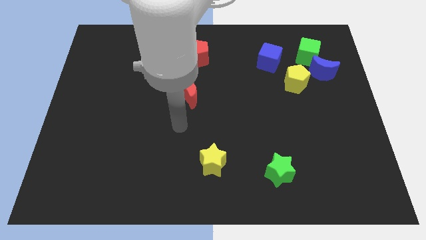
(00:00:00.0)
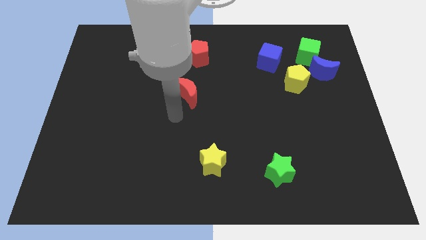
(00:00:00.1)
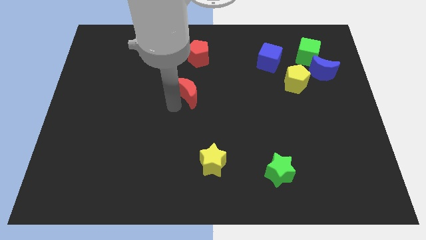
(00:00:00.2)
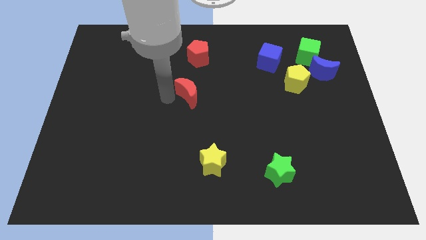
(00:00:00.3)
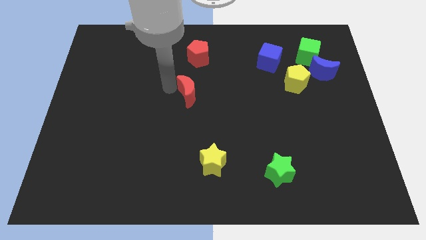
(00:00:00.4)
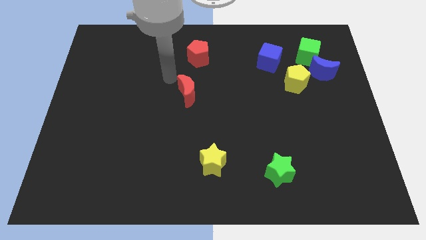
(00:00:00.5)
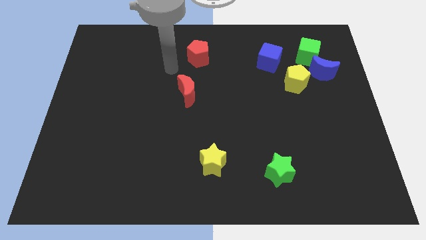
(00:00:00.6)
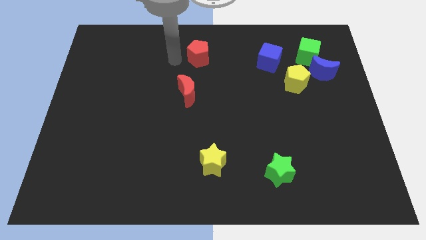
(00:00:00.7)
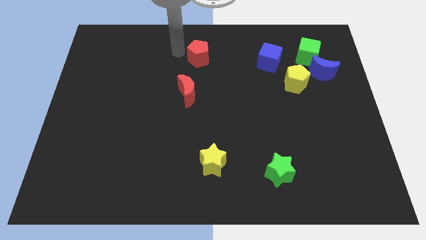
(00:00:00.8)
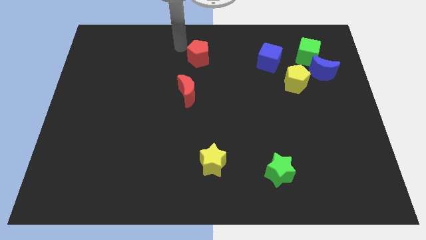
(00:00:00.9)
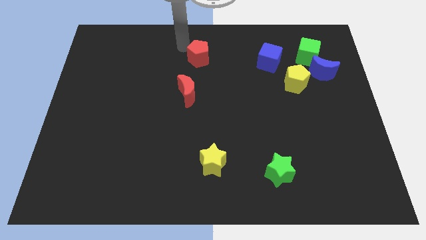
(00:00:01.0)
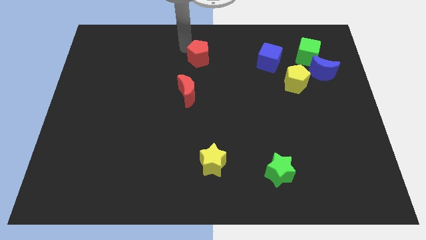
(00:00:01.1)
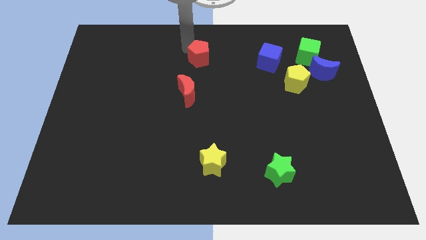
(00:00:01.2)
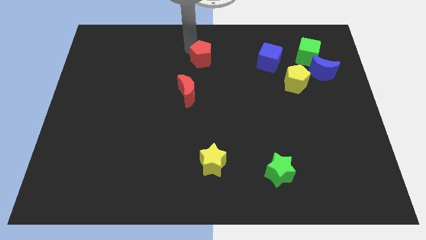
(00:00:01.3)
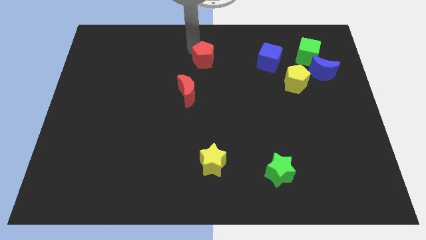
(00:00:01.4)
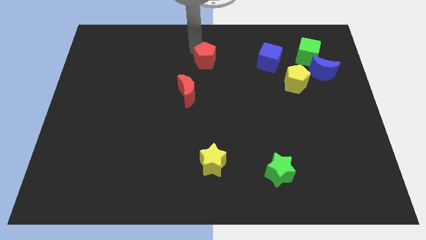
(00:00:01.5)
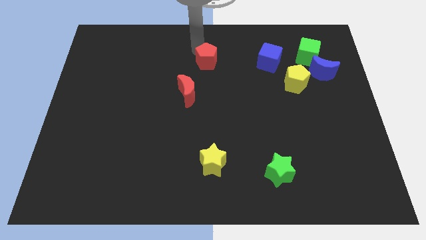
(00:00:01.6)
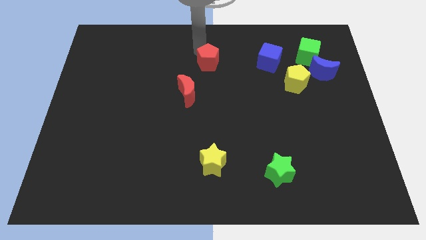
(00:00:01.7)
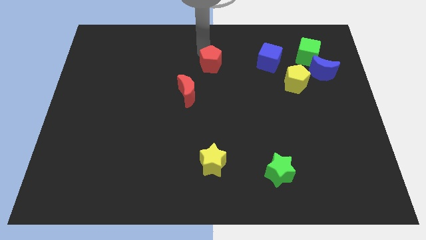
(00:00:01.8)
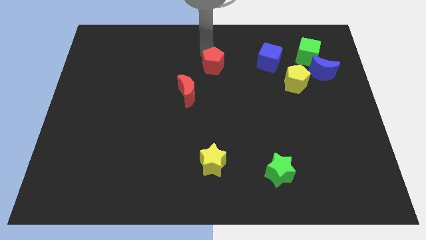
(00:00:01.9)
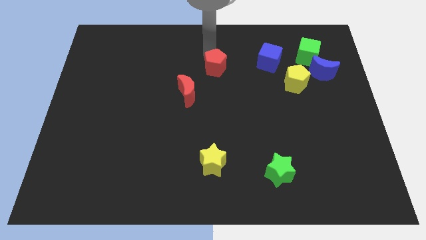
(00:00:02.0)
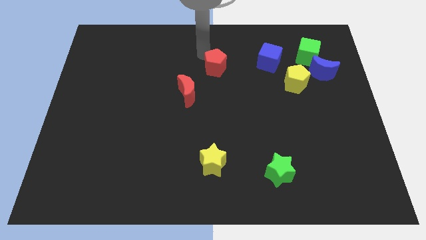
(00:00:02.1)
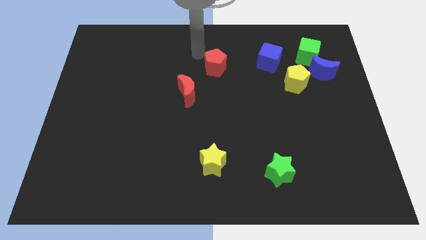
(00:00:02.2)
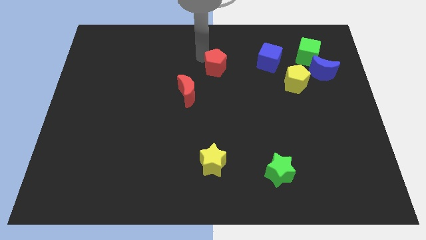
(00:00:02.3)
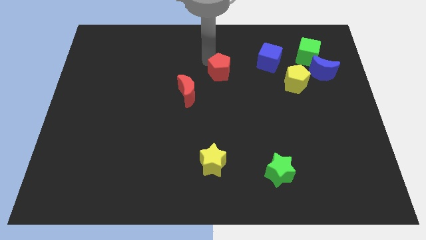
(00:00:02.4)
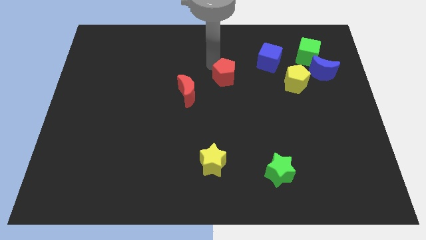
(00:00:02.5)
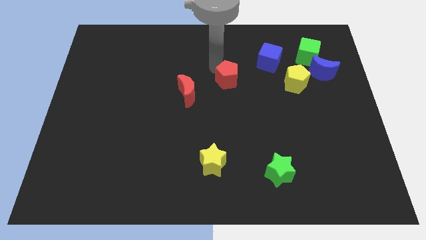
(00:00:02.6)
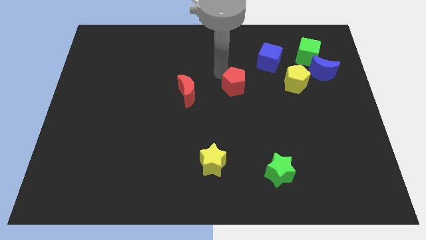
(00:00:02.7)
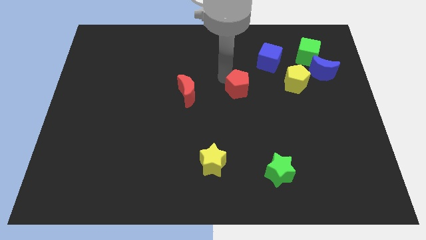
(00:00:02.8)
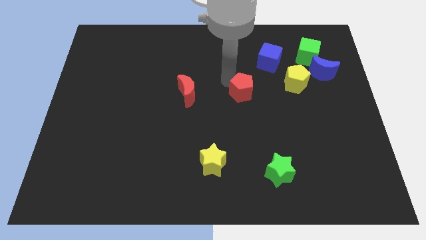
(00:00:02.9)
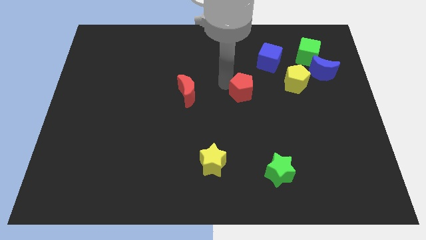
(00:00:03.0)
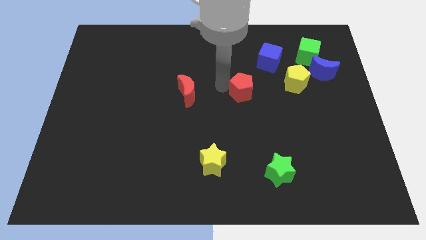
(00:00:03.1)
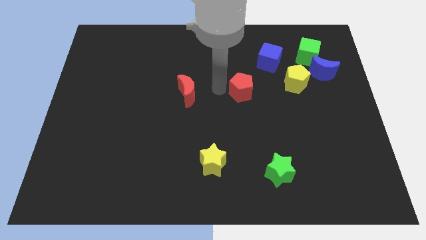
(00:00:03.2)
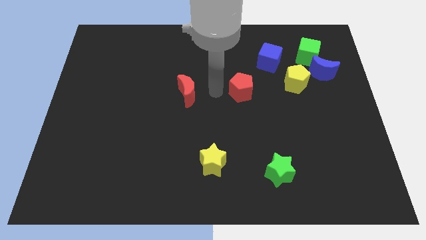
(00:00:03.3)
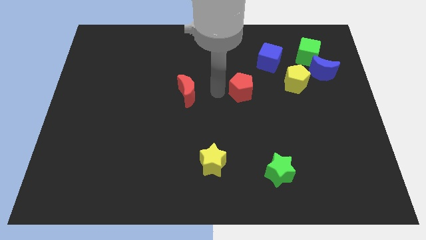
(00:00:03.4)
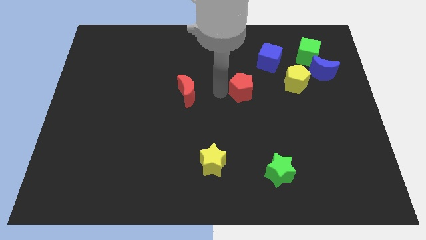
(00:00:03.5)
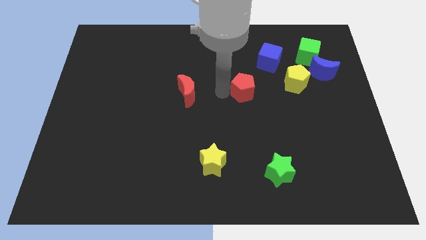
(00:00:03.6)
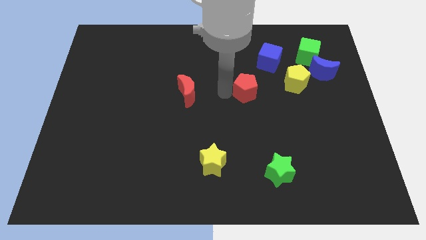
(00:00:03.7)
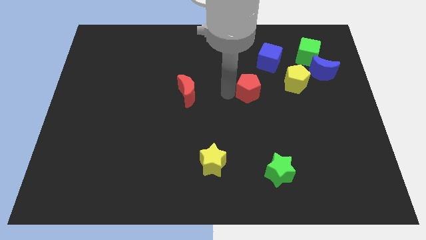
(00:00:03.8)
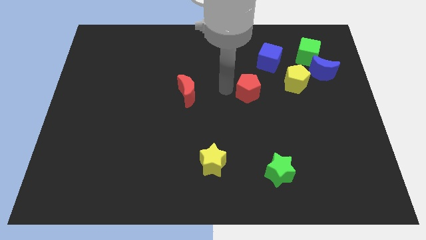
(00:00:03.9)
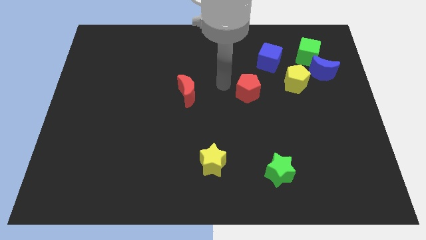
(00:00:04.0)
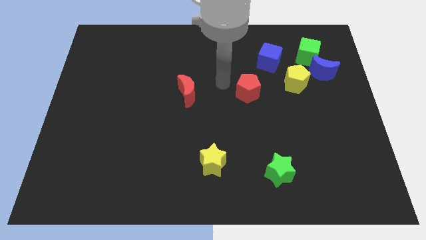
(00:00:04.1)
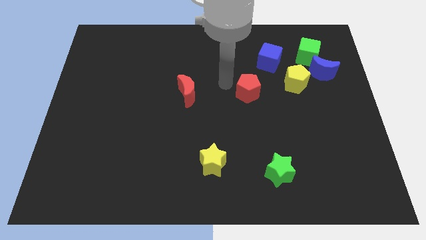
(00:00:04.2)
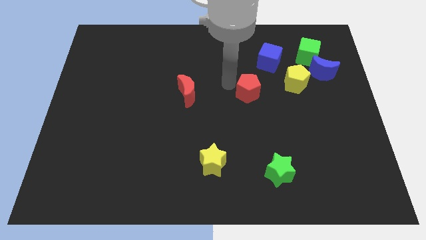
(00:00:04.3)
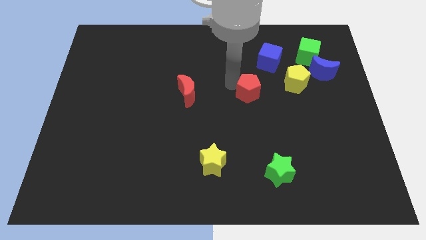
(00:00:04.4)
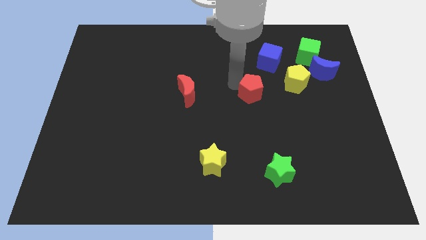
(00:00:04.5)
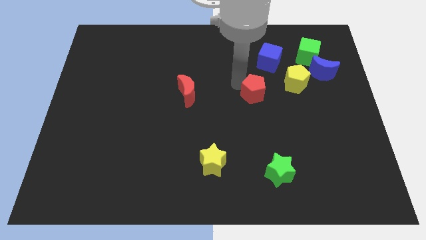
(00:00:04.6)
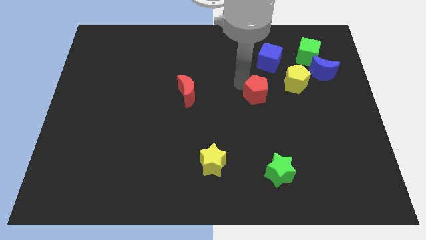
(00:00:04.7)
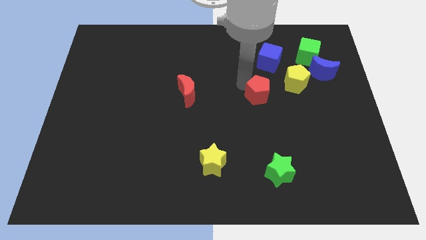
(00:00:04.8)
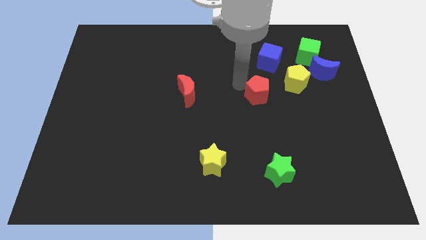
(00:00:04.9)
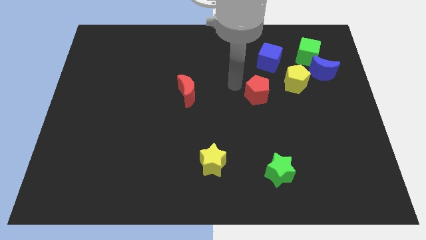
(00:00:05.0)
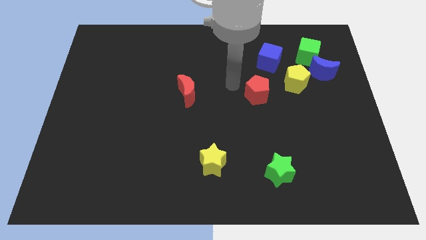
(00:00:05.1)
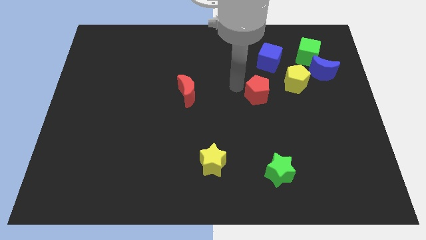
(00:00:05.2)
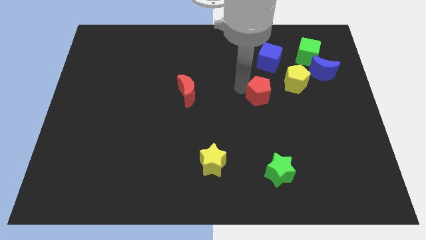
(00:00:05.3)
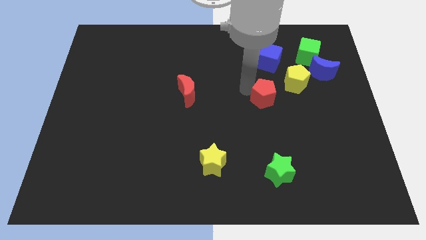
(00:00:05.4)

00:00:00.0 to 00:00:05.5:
move the red pentagon downwards and to the right

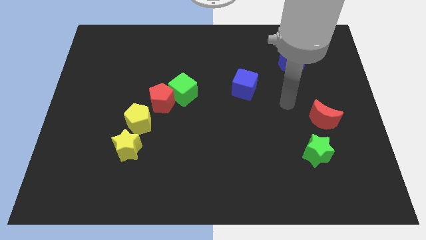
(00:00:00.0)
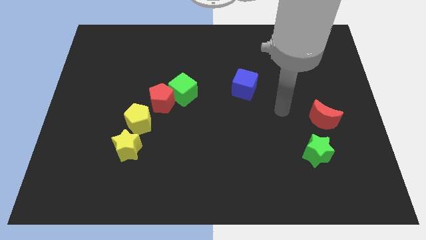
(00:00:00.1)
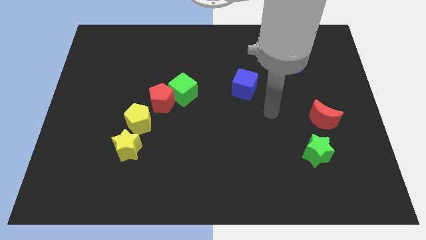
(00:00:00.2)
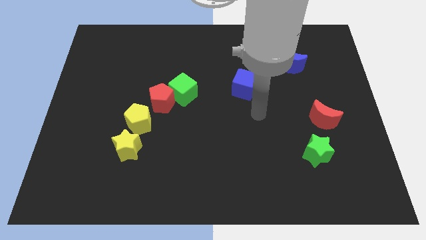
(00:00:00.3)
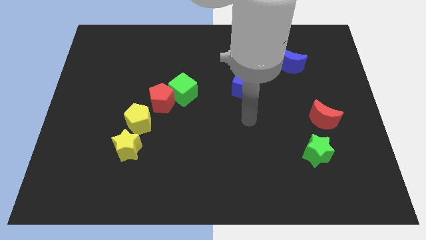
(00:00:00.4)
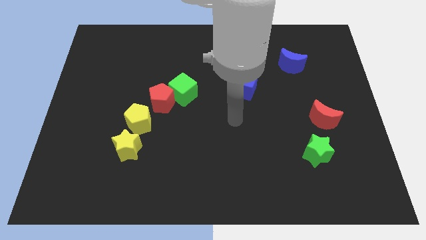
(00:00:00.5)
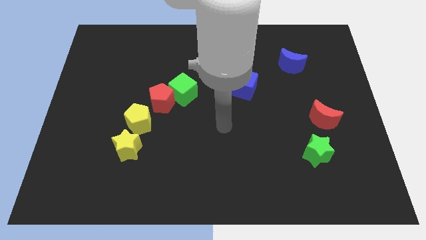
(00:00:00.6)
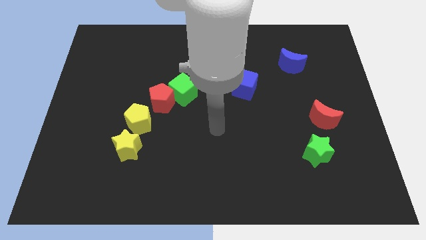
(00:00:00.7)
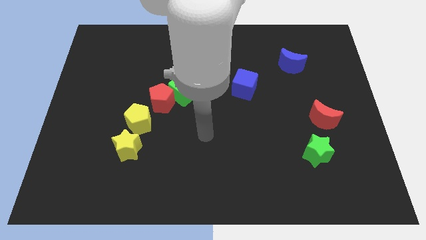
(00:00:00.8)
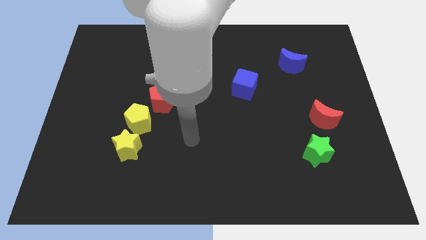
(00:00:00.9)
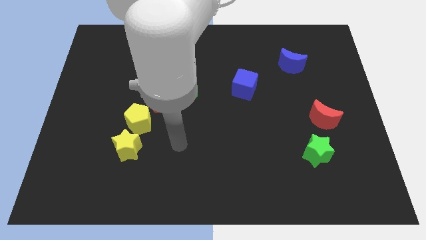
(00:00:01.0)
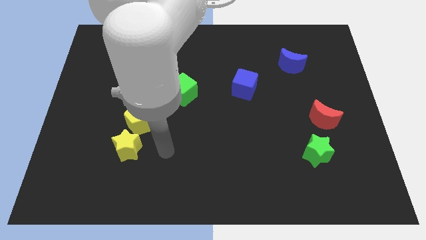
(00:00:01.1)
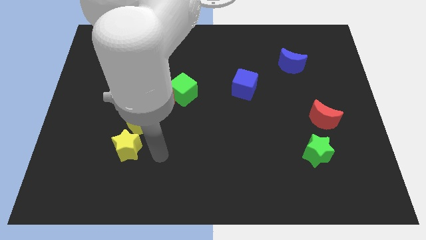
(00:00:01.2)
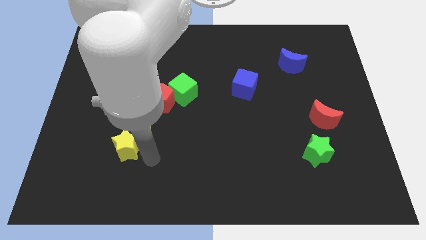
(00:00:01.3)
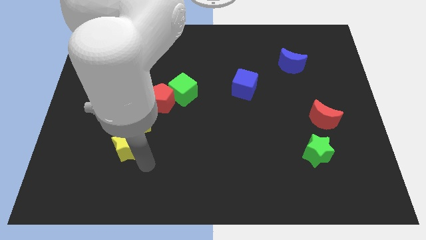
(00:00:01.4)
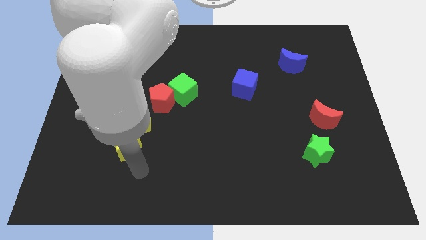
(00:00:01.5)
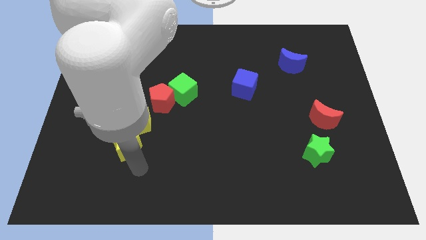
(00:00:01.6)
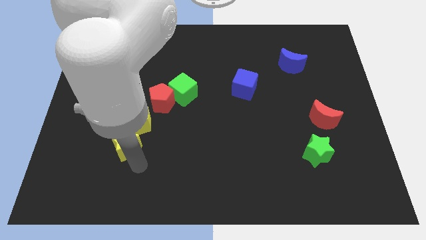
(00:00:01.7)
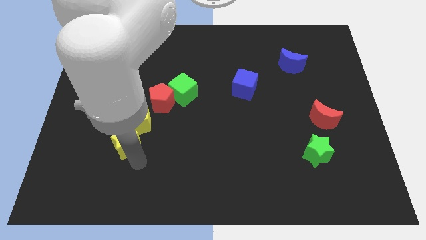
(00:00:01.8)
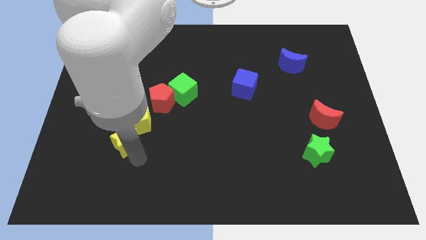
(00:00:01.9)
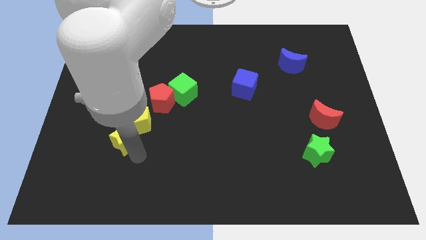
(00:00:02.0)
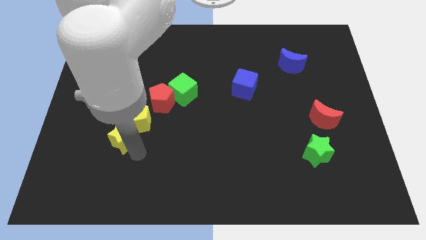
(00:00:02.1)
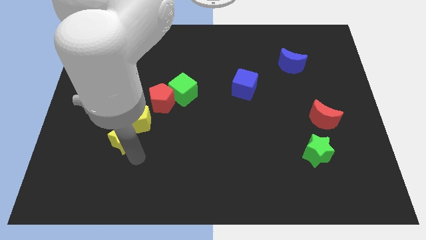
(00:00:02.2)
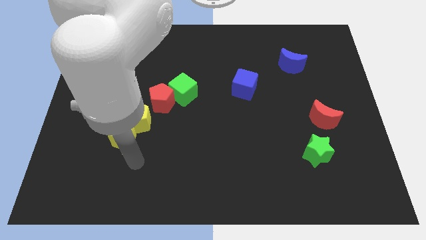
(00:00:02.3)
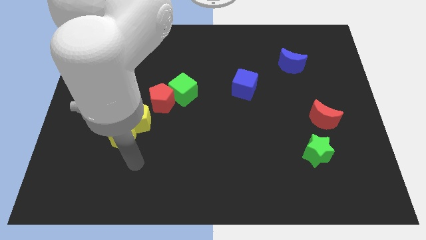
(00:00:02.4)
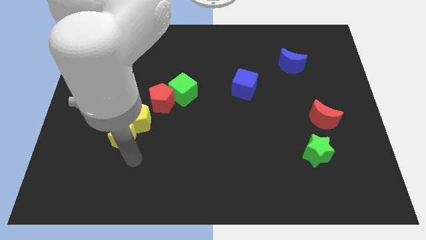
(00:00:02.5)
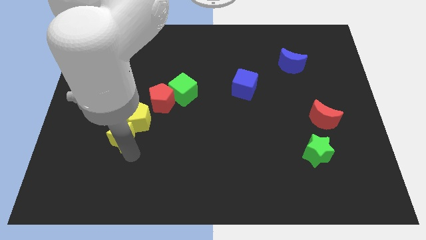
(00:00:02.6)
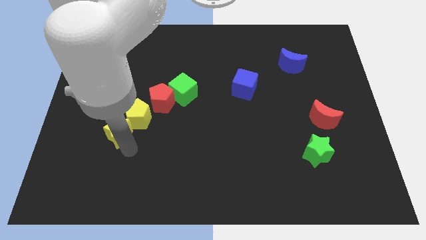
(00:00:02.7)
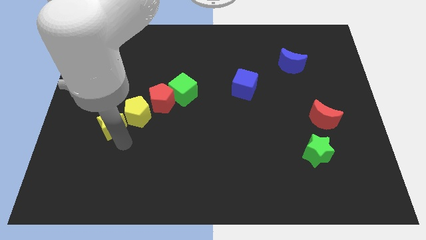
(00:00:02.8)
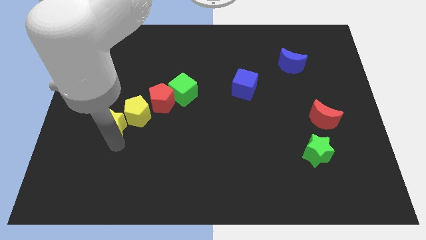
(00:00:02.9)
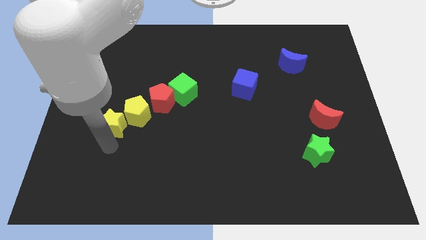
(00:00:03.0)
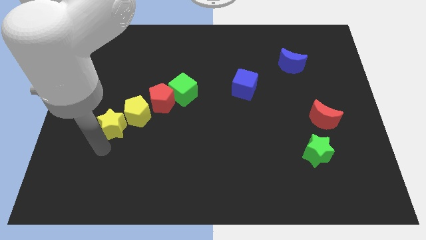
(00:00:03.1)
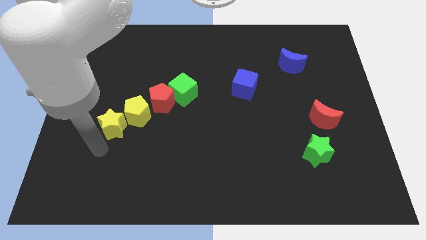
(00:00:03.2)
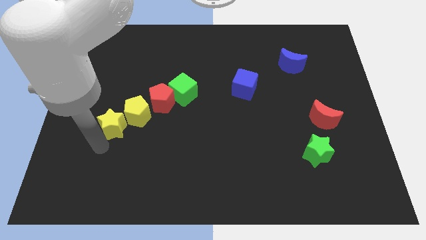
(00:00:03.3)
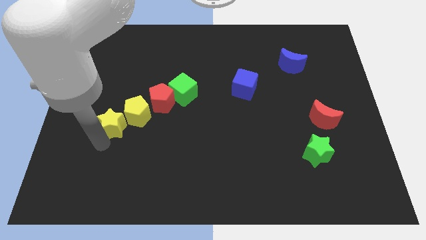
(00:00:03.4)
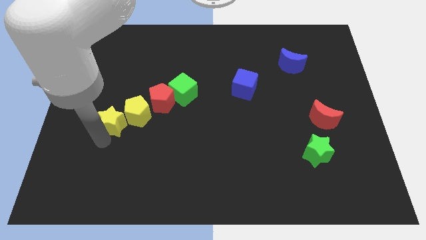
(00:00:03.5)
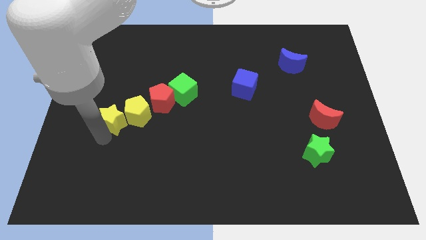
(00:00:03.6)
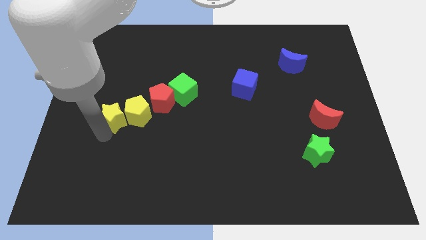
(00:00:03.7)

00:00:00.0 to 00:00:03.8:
push the yellow star a little bit upwards
